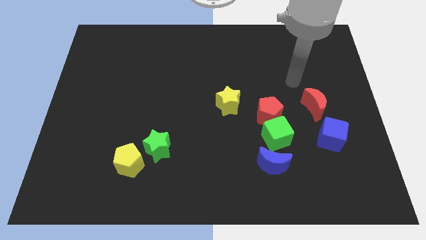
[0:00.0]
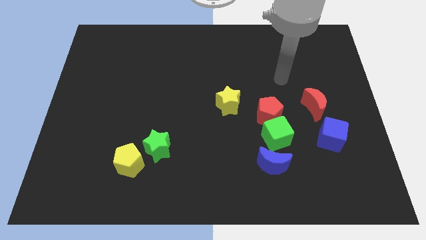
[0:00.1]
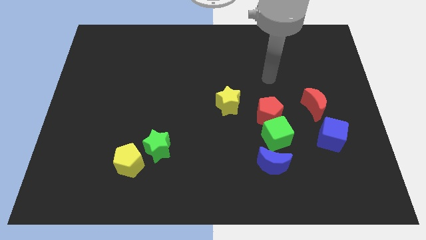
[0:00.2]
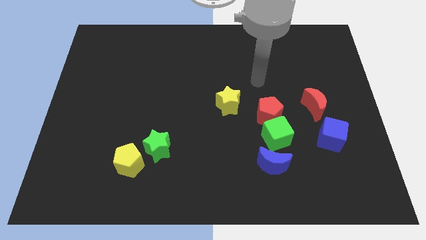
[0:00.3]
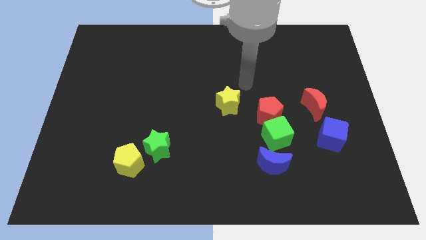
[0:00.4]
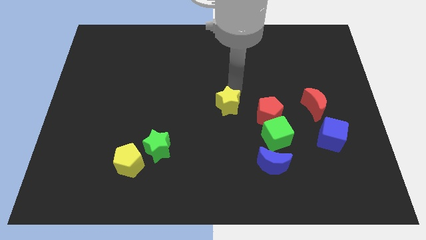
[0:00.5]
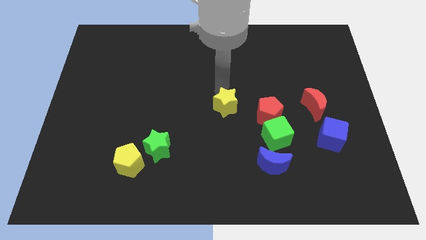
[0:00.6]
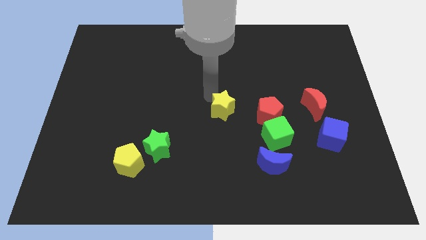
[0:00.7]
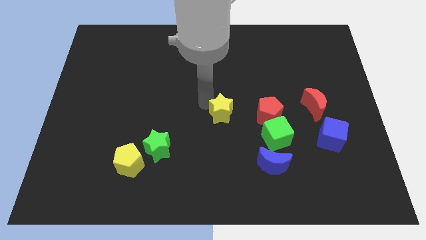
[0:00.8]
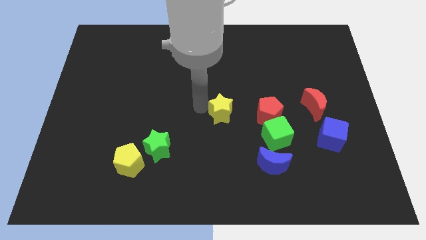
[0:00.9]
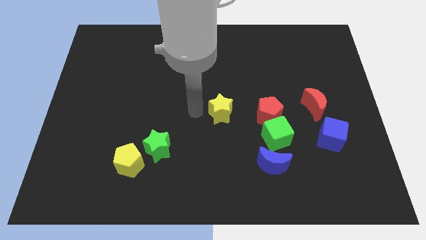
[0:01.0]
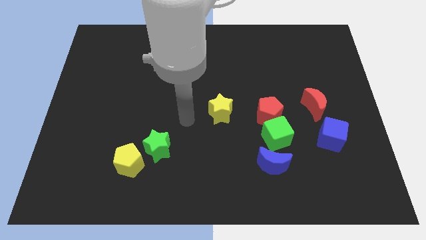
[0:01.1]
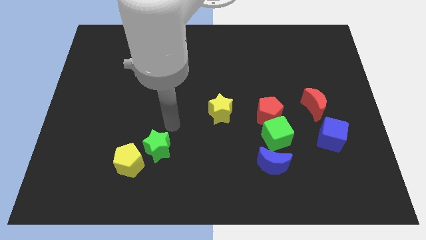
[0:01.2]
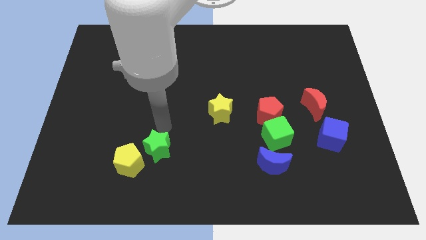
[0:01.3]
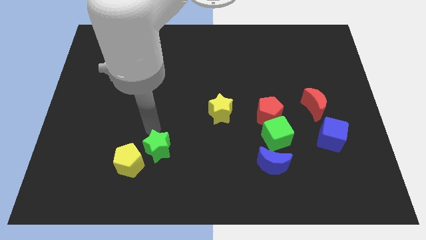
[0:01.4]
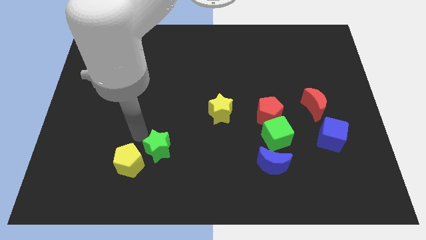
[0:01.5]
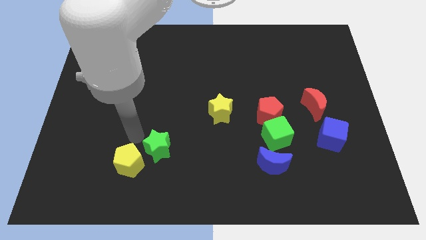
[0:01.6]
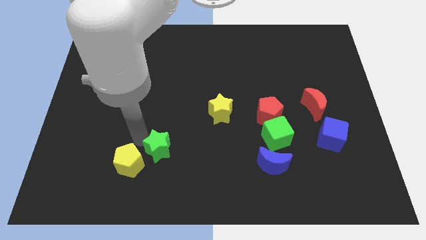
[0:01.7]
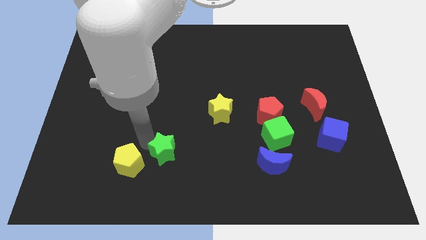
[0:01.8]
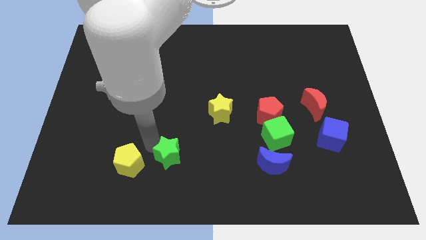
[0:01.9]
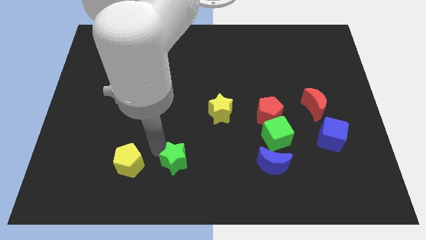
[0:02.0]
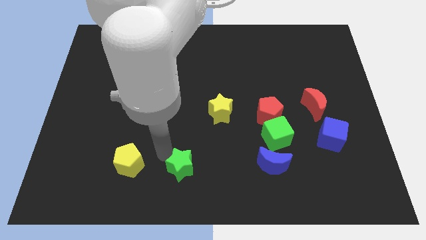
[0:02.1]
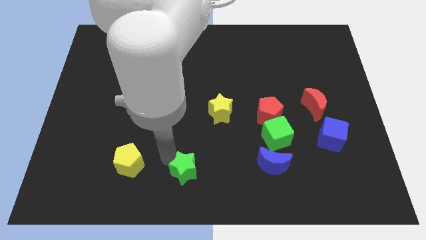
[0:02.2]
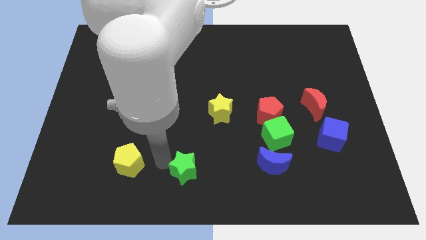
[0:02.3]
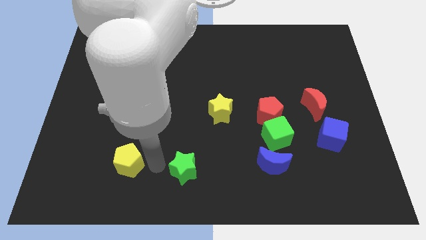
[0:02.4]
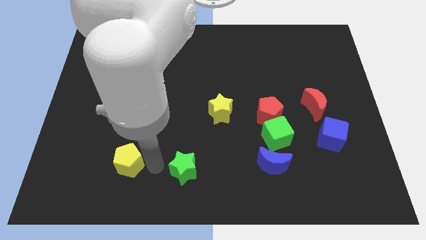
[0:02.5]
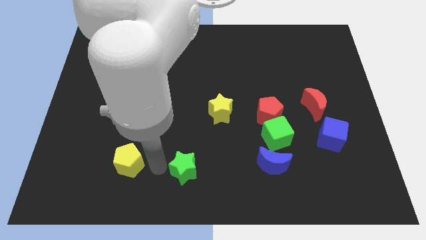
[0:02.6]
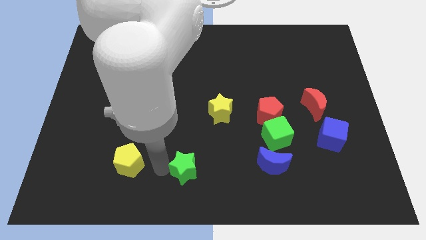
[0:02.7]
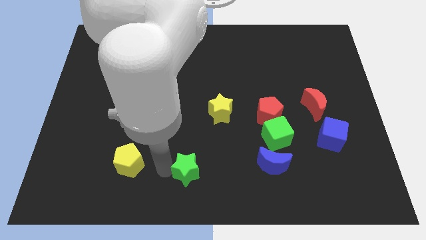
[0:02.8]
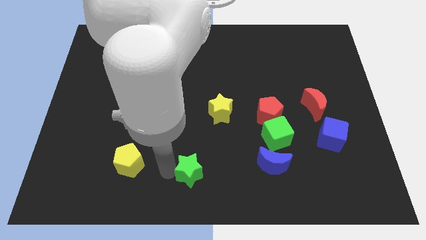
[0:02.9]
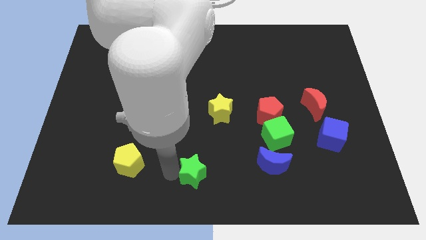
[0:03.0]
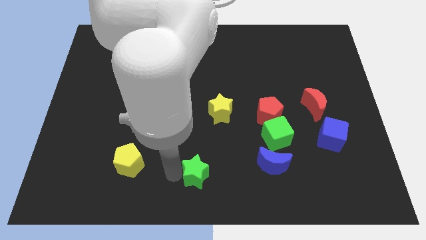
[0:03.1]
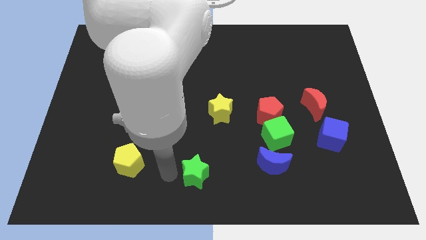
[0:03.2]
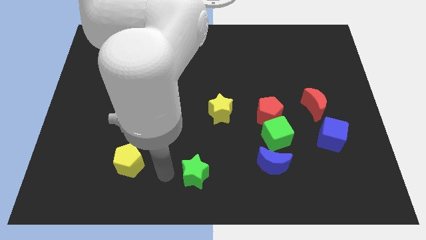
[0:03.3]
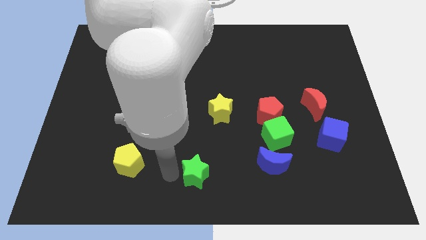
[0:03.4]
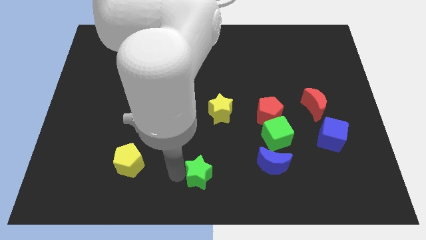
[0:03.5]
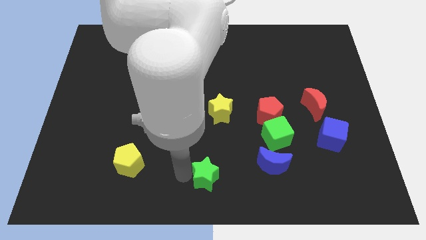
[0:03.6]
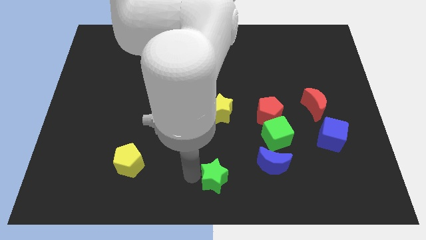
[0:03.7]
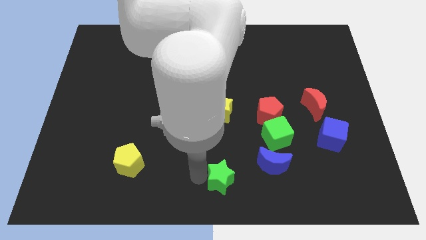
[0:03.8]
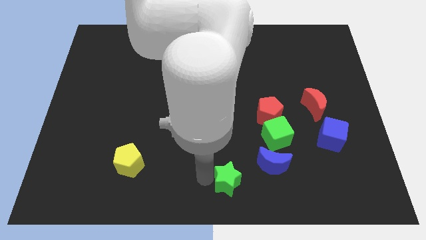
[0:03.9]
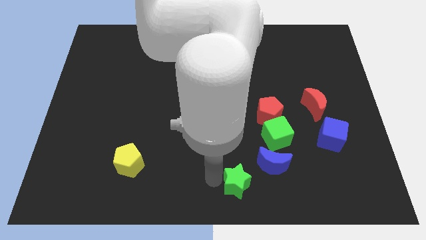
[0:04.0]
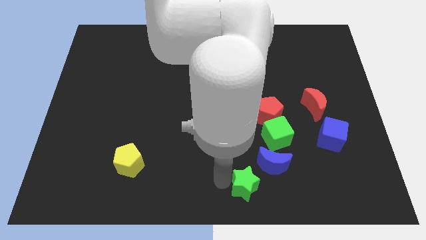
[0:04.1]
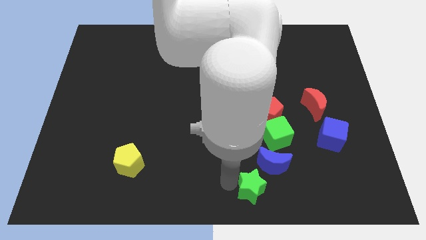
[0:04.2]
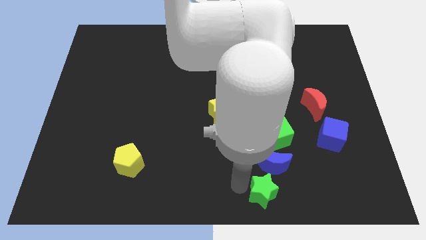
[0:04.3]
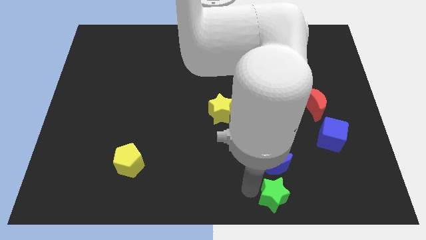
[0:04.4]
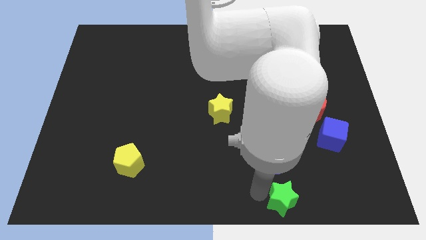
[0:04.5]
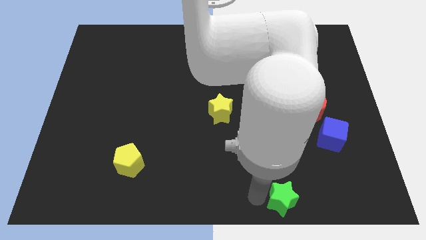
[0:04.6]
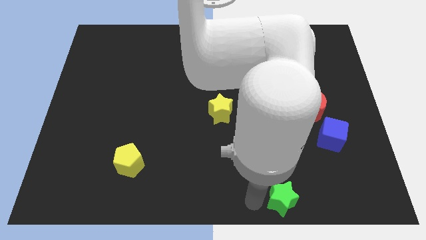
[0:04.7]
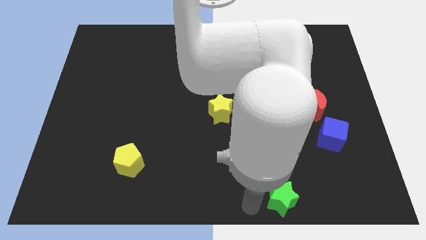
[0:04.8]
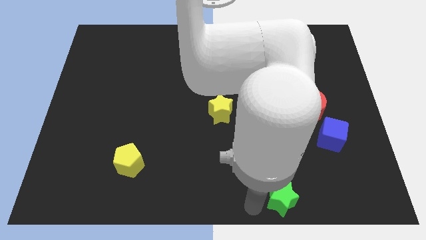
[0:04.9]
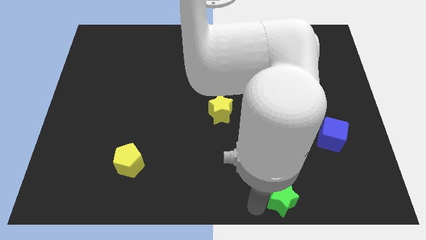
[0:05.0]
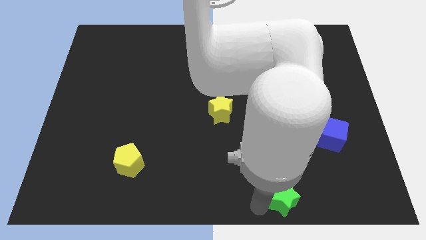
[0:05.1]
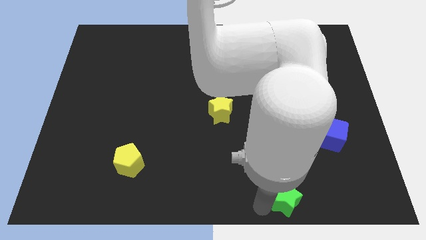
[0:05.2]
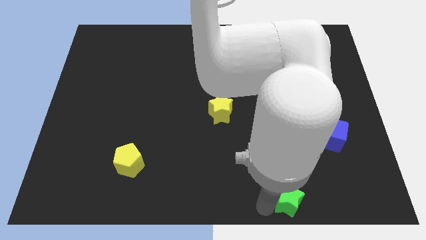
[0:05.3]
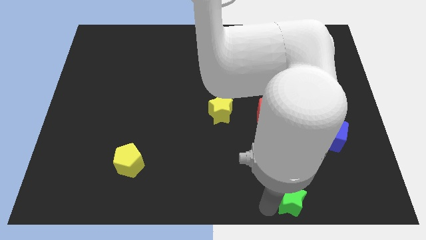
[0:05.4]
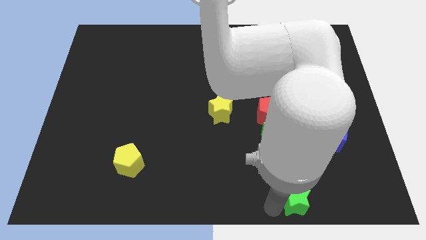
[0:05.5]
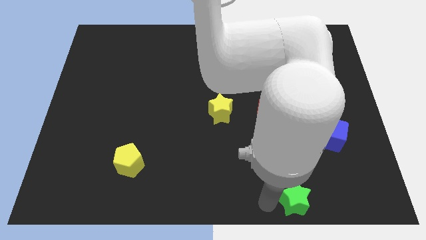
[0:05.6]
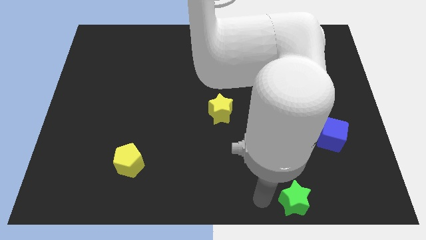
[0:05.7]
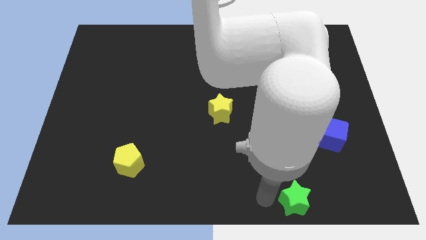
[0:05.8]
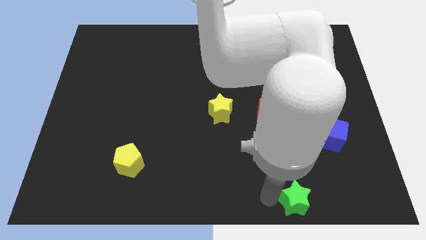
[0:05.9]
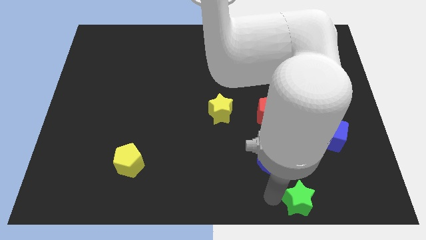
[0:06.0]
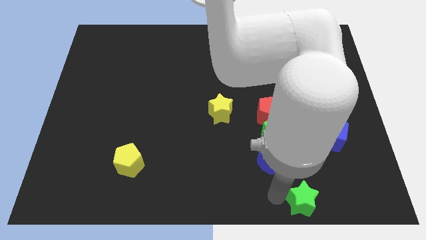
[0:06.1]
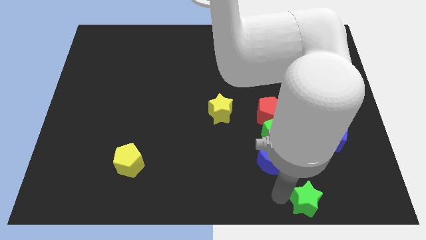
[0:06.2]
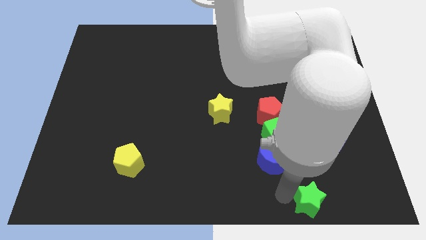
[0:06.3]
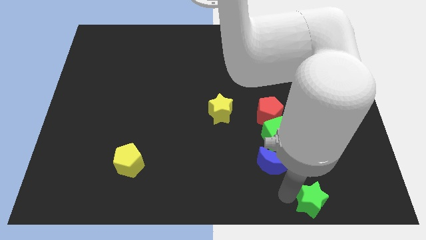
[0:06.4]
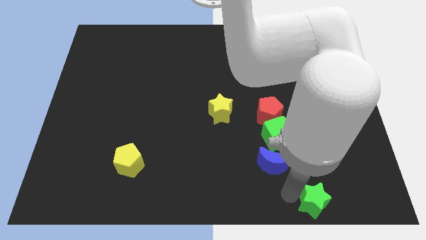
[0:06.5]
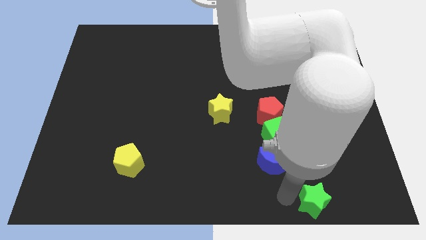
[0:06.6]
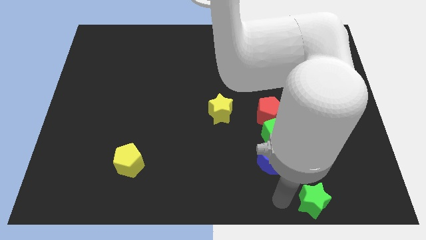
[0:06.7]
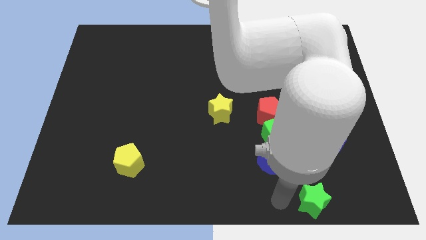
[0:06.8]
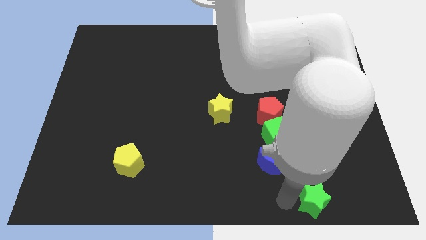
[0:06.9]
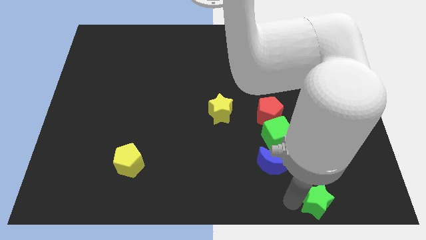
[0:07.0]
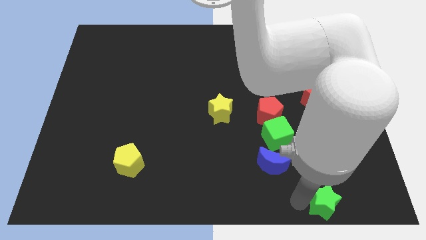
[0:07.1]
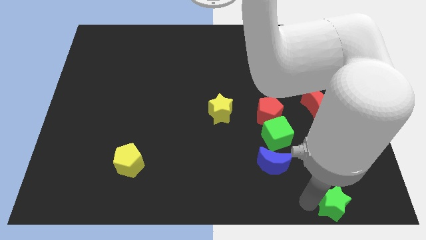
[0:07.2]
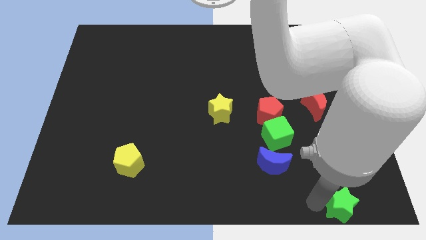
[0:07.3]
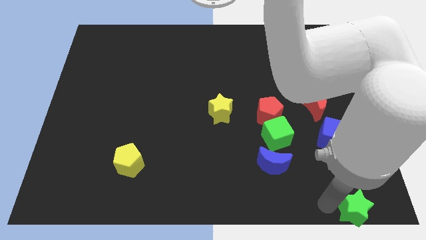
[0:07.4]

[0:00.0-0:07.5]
slide the green star to the lower right corner
